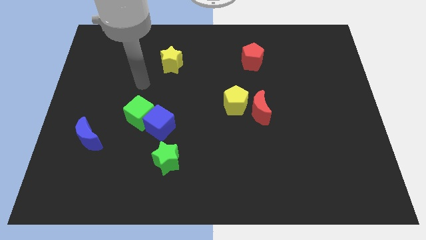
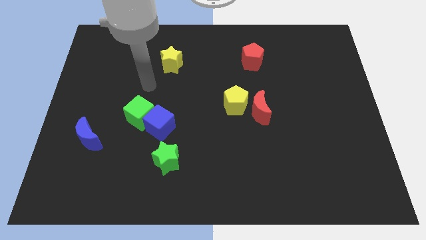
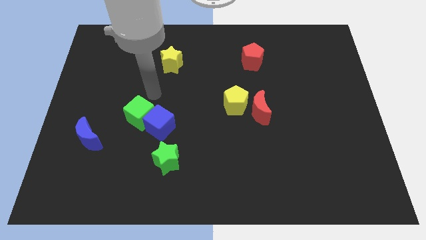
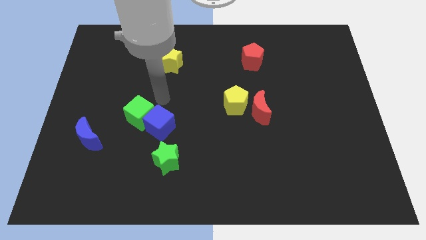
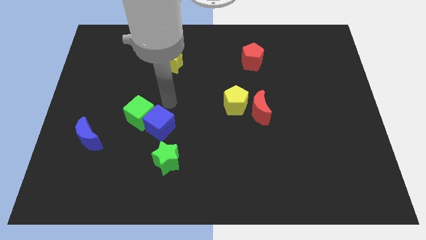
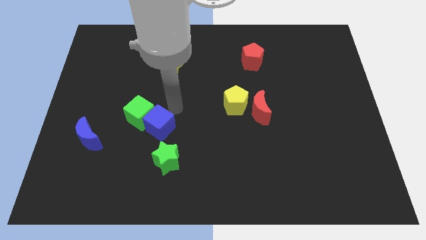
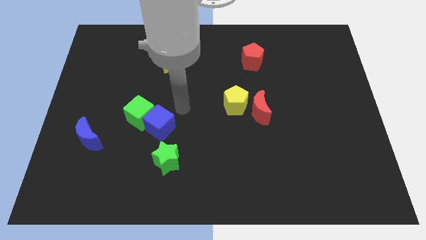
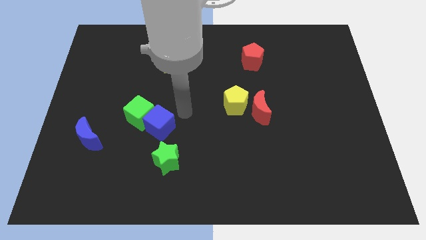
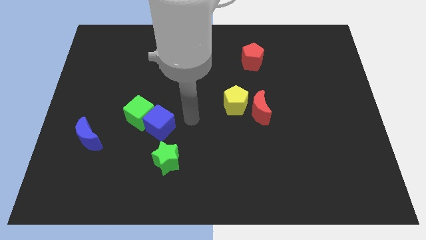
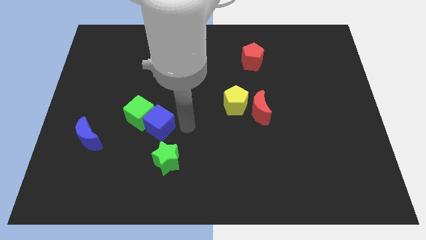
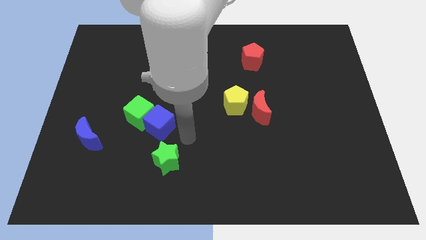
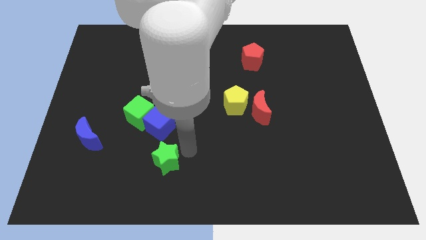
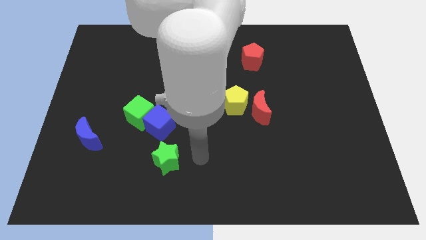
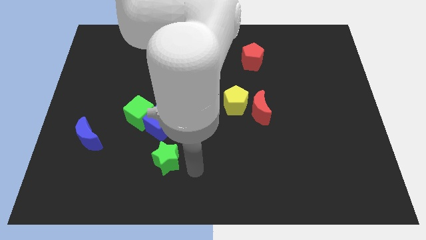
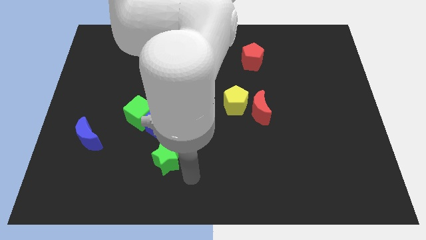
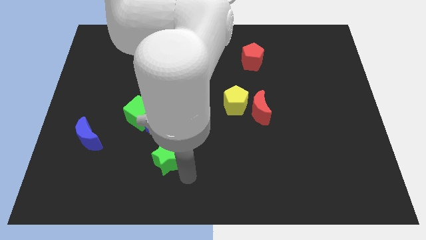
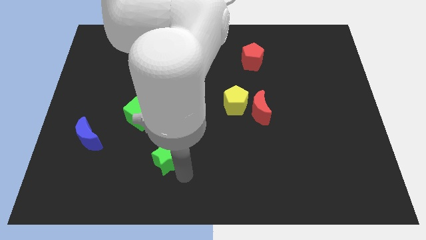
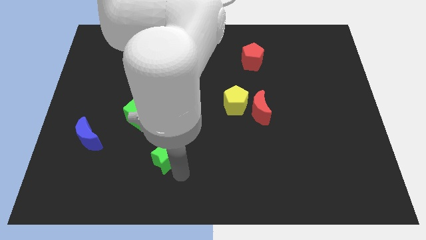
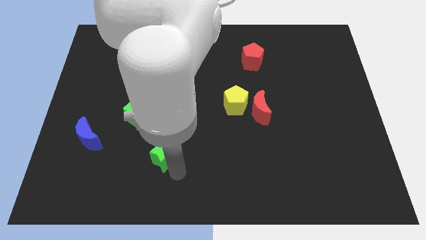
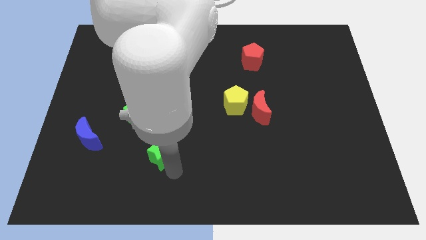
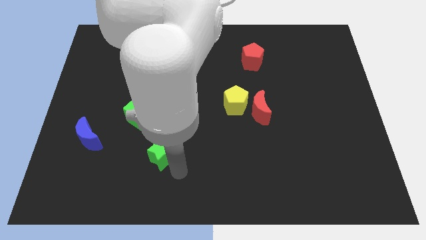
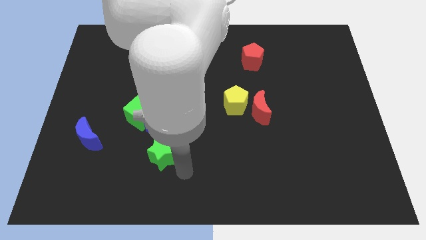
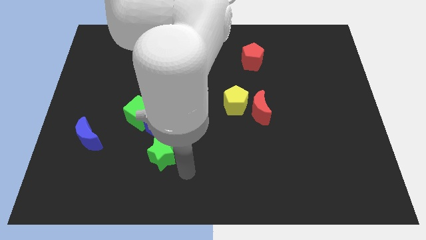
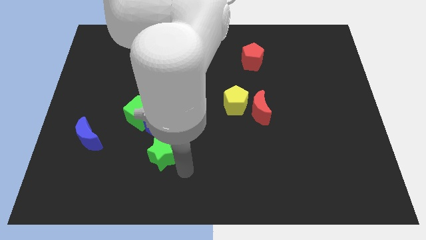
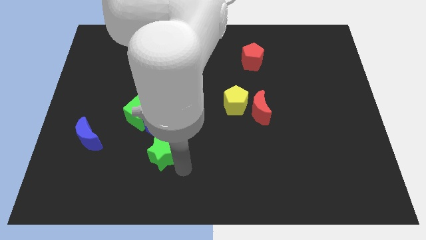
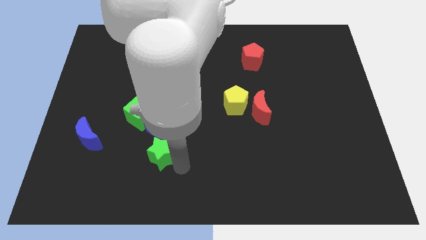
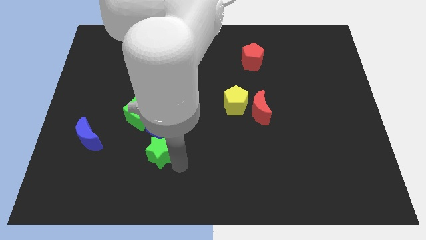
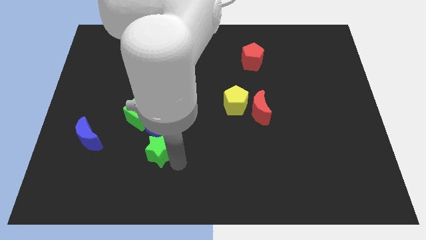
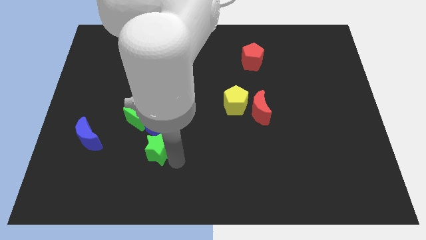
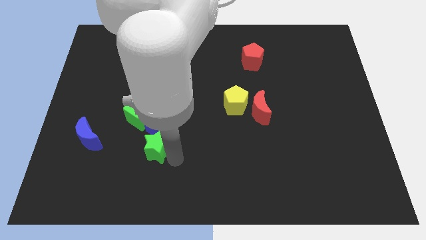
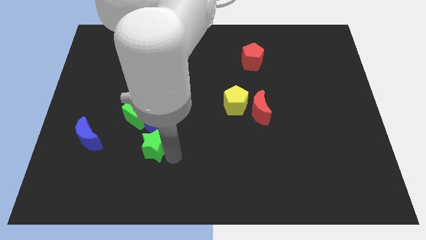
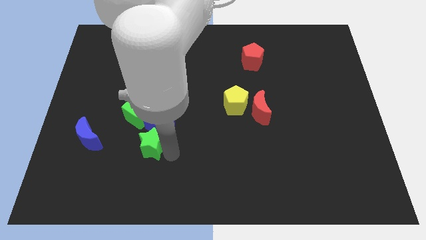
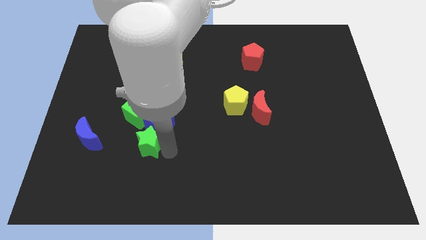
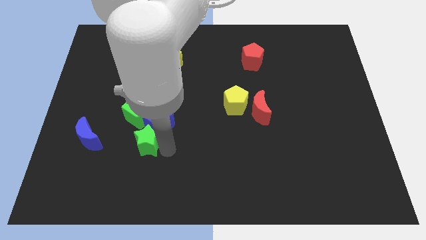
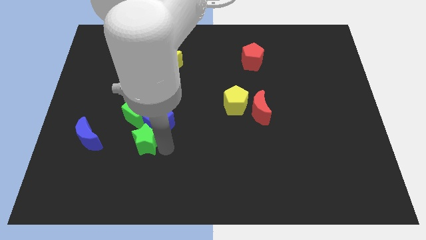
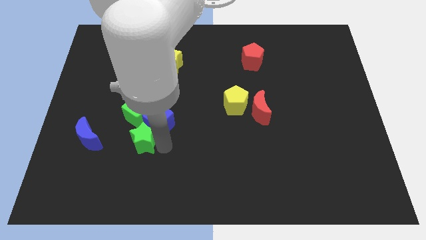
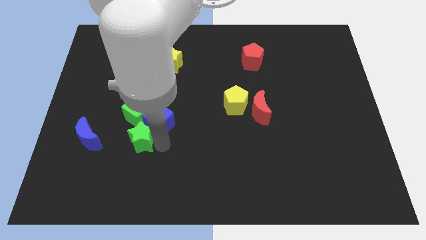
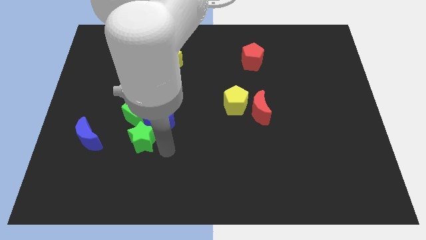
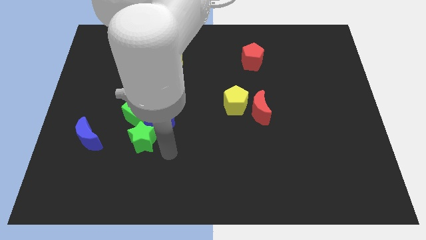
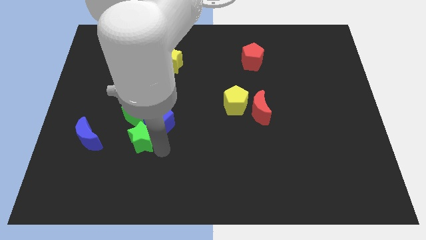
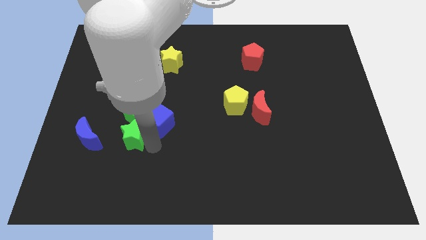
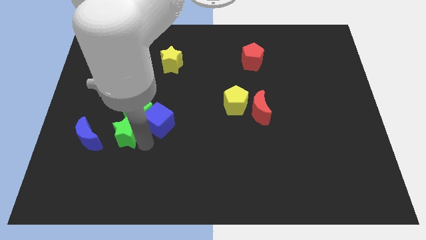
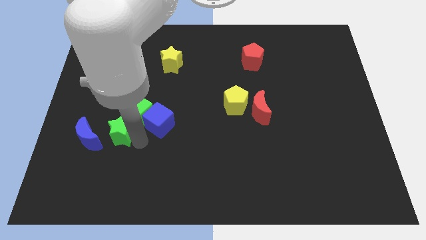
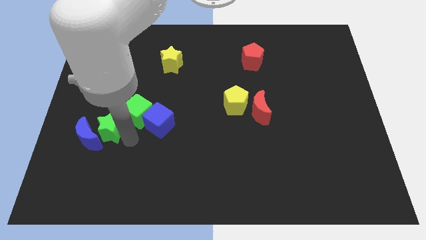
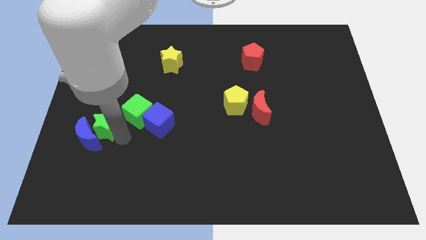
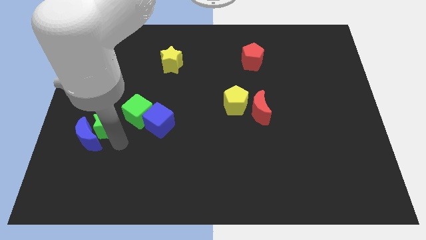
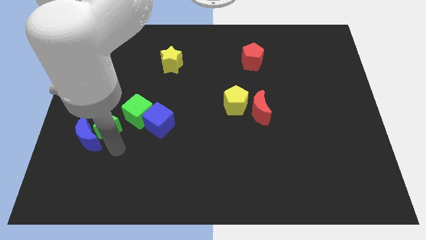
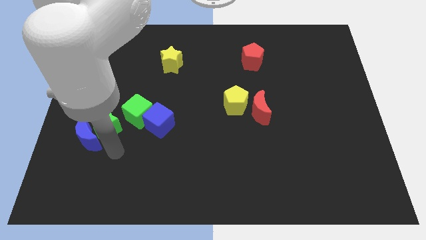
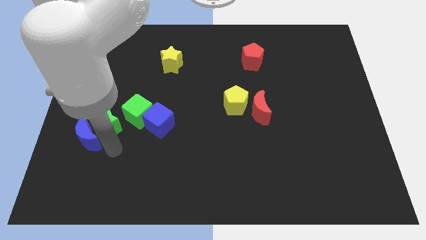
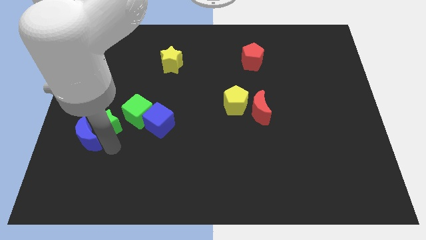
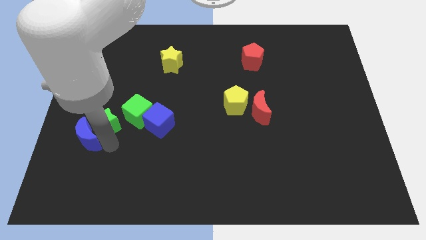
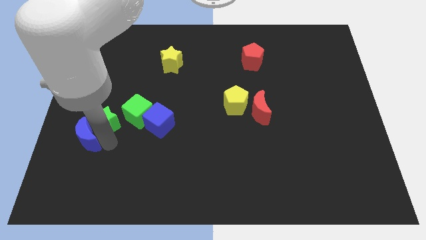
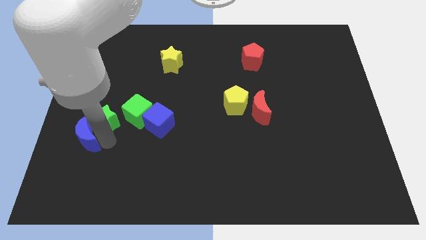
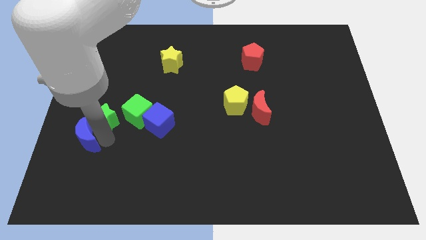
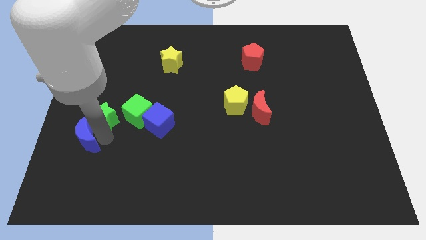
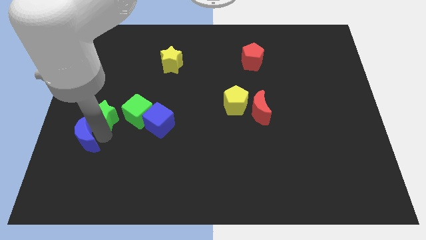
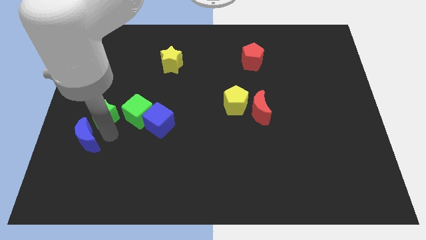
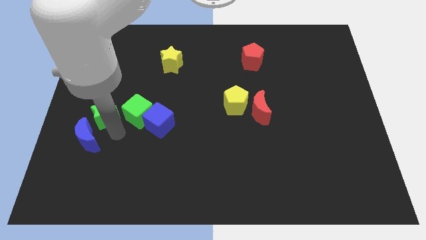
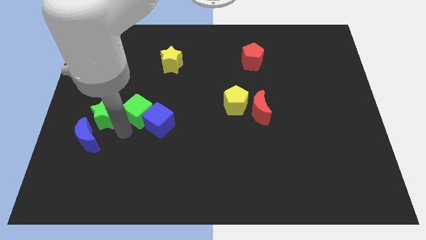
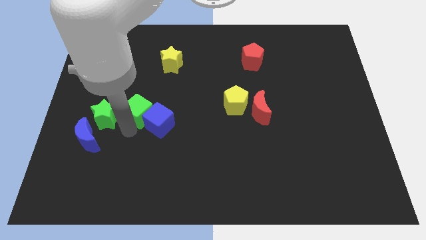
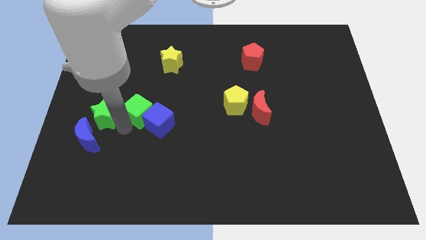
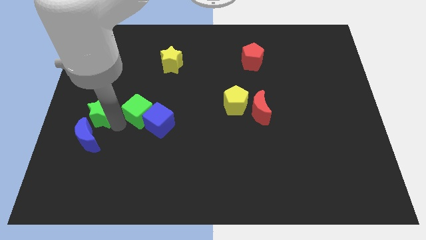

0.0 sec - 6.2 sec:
put the green star to the left side

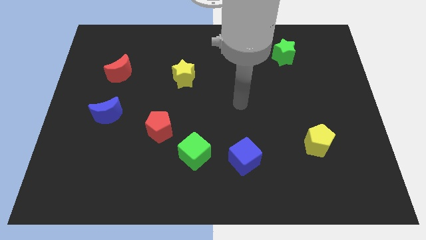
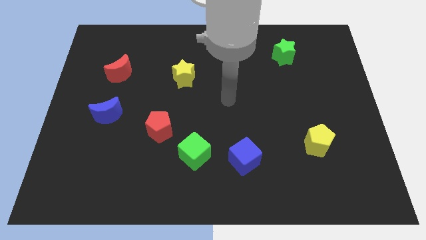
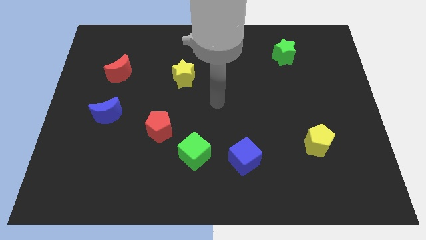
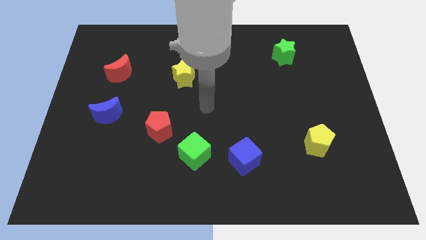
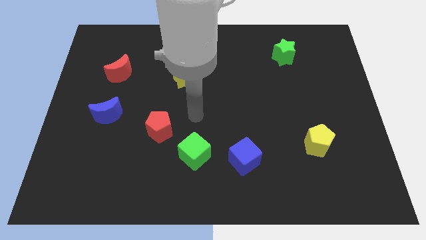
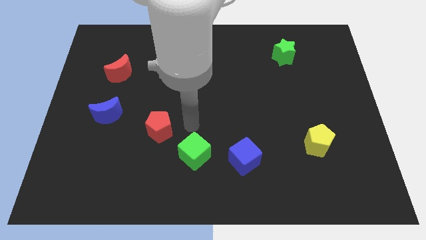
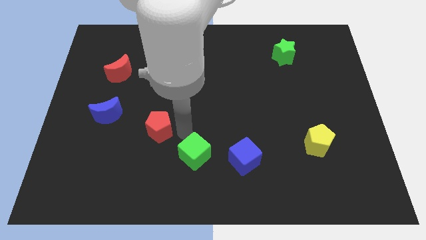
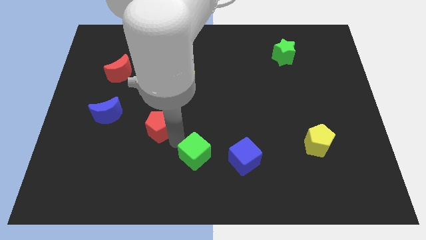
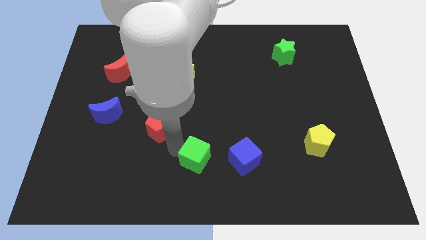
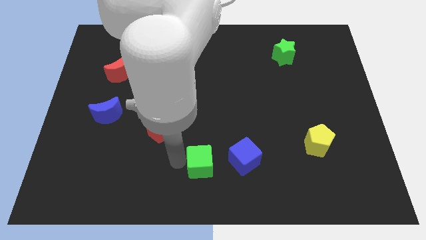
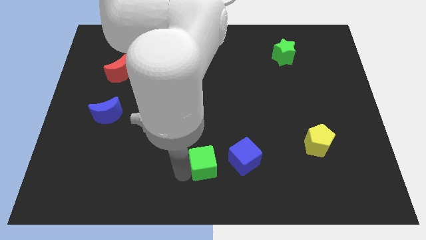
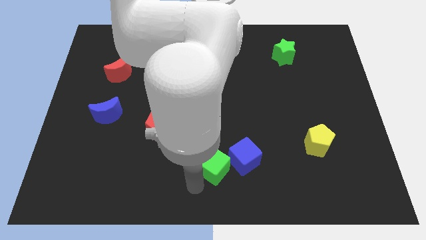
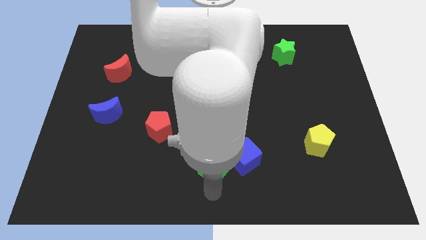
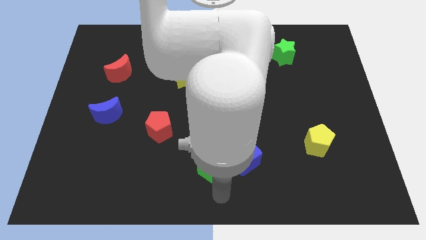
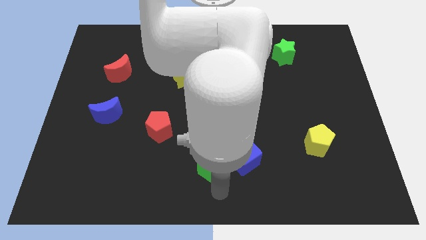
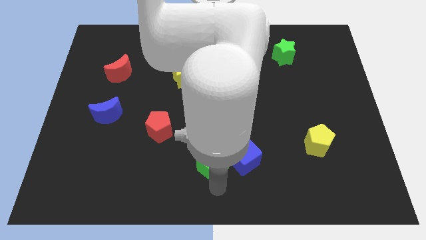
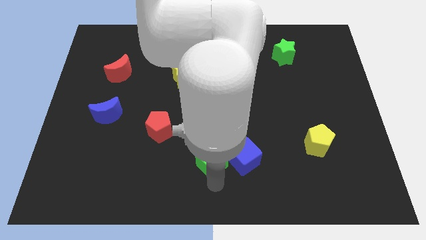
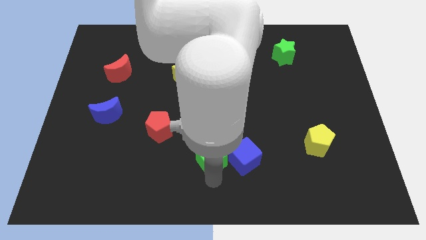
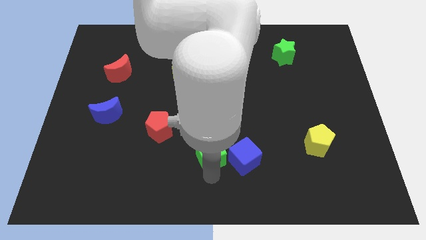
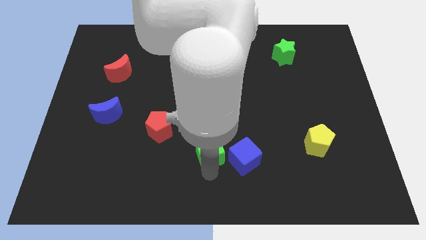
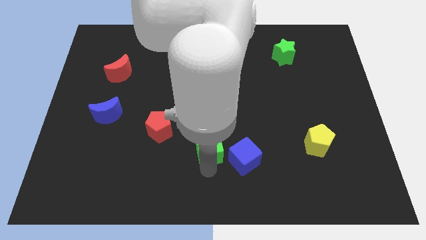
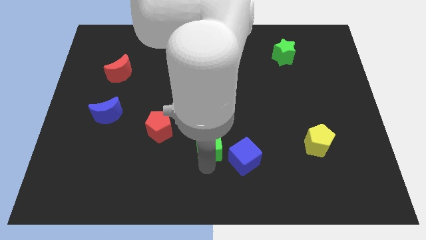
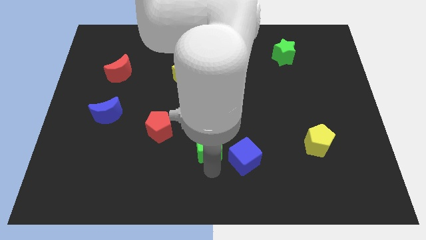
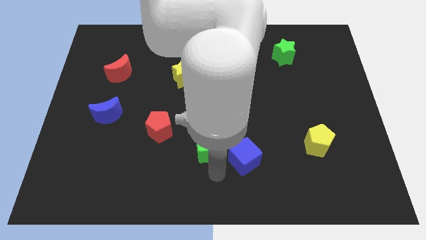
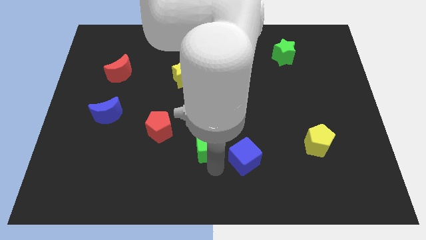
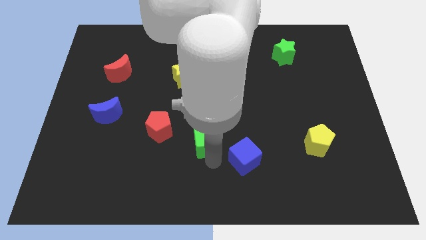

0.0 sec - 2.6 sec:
put the green cube to the middle of the board
